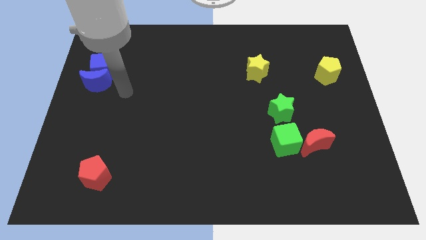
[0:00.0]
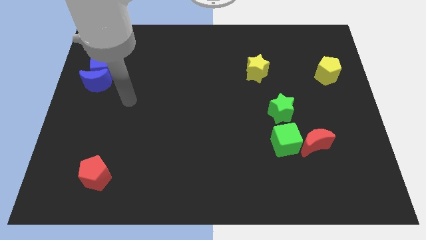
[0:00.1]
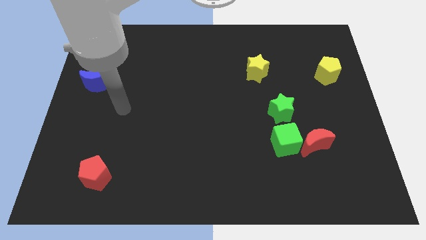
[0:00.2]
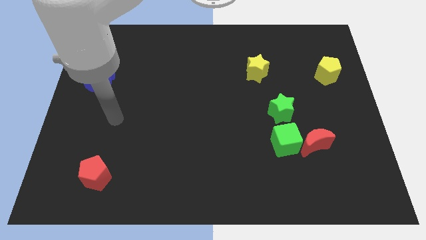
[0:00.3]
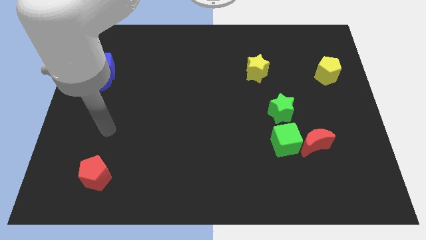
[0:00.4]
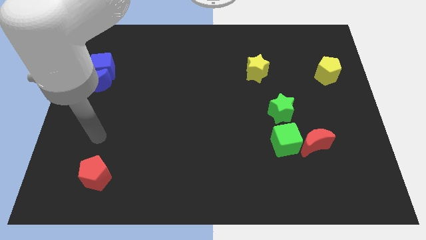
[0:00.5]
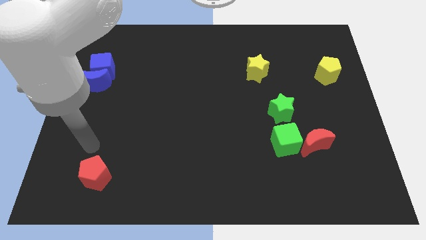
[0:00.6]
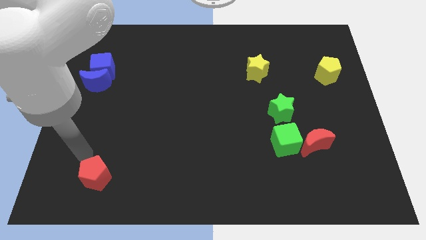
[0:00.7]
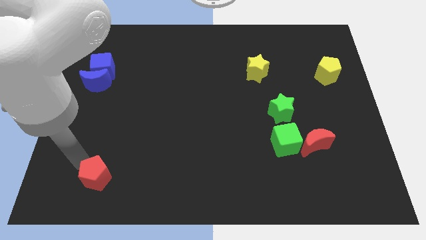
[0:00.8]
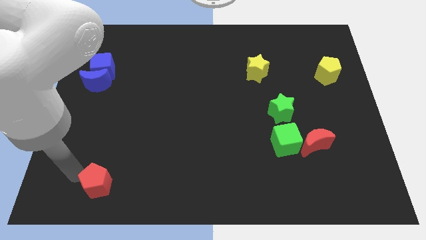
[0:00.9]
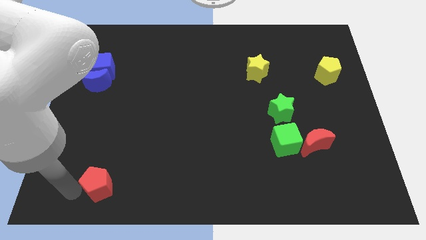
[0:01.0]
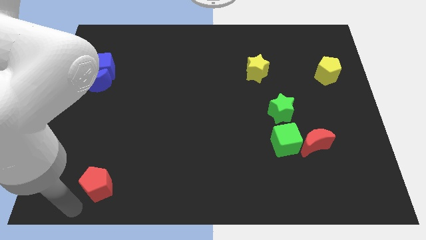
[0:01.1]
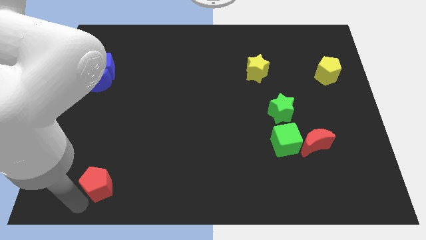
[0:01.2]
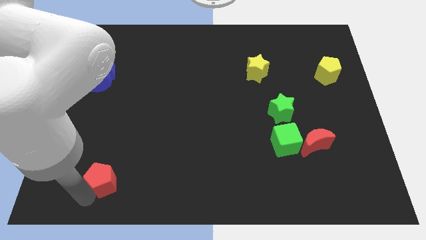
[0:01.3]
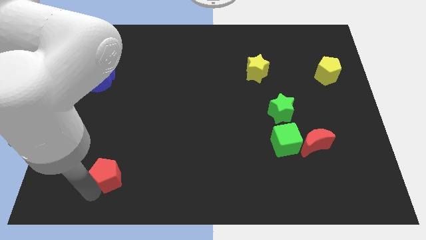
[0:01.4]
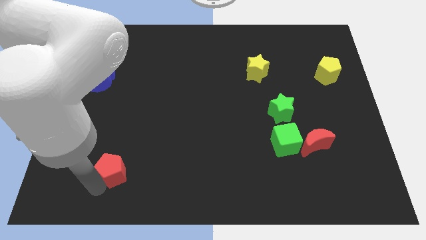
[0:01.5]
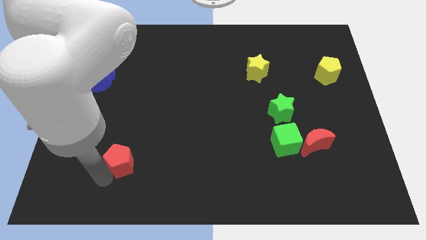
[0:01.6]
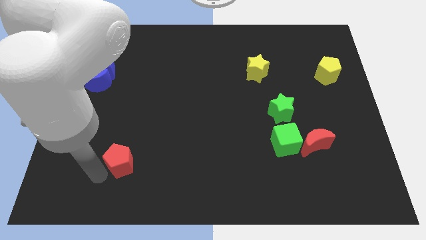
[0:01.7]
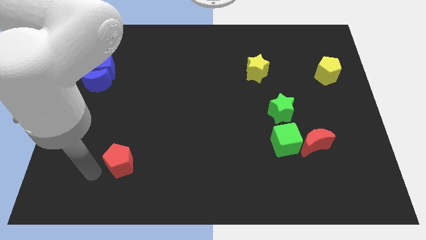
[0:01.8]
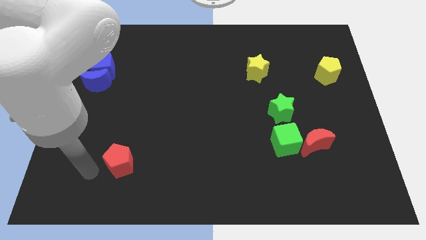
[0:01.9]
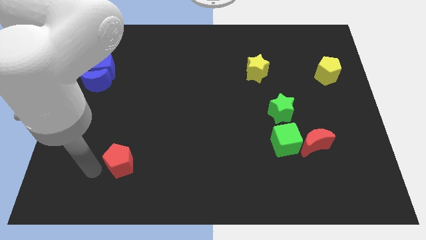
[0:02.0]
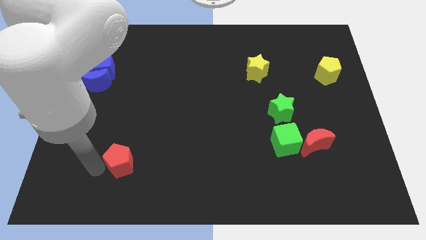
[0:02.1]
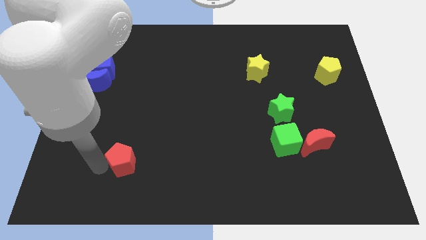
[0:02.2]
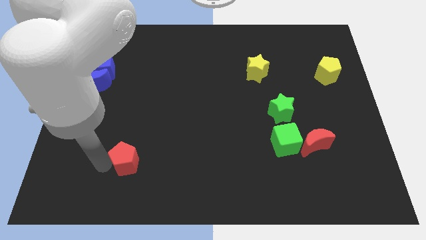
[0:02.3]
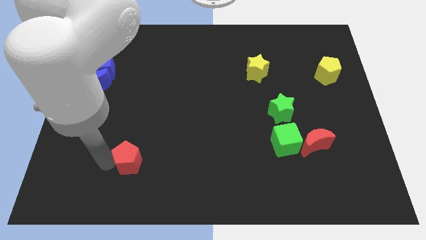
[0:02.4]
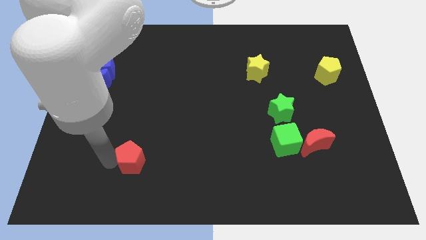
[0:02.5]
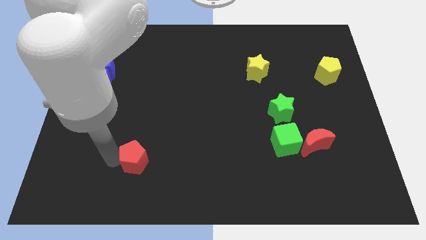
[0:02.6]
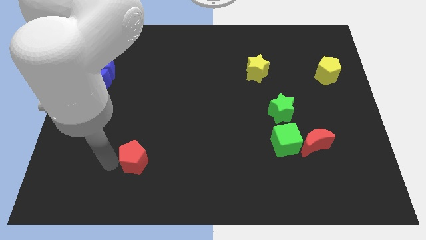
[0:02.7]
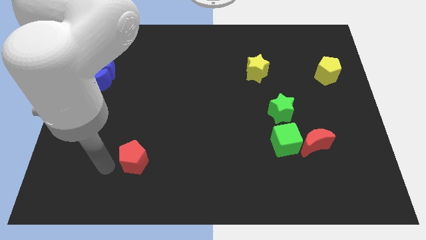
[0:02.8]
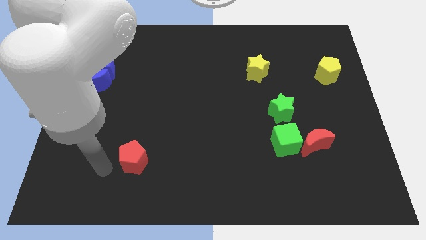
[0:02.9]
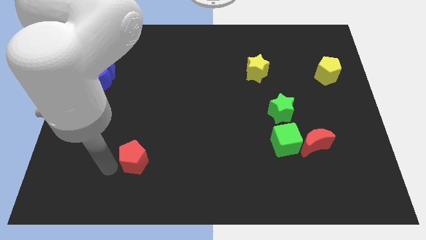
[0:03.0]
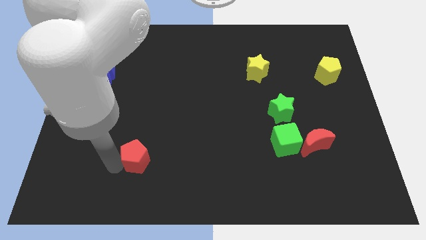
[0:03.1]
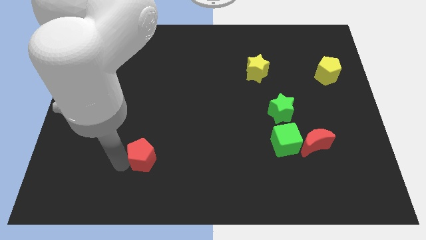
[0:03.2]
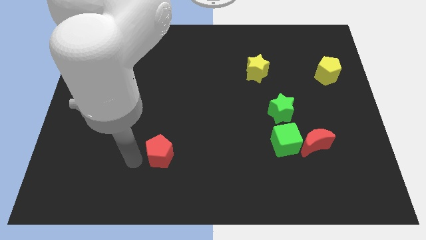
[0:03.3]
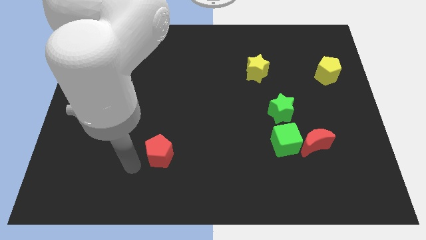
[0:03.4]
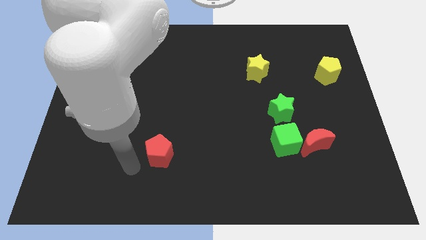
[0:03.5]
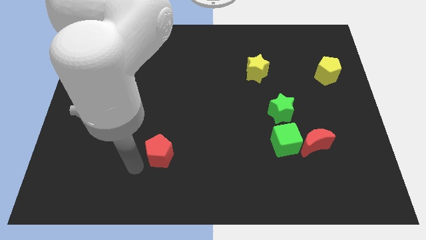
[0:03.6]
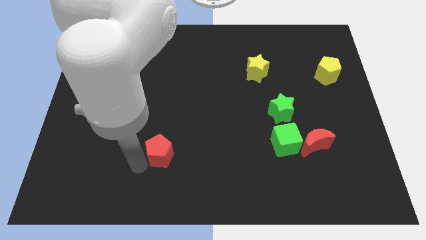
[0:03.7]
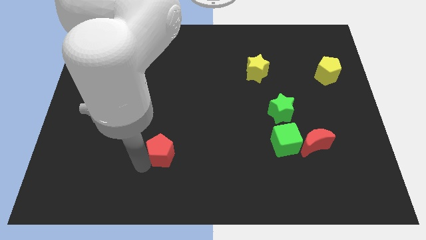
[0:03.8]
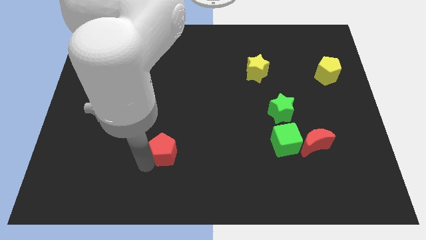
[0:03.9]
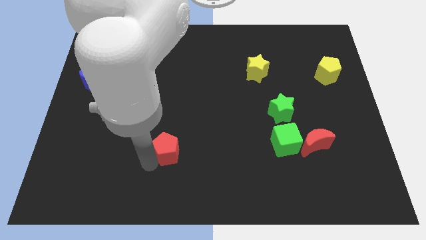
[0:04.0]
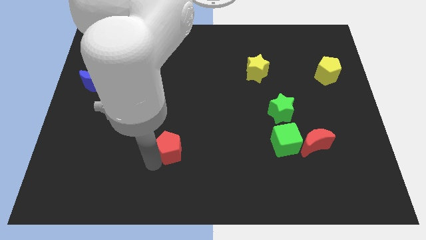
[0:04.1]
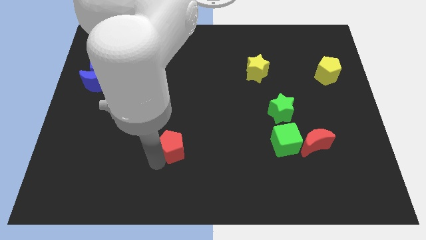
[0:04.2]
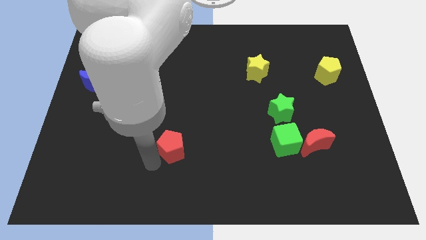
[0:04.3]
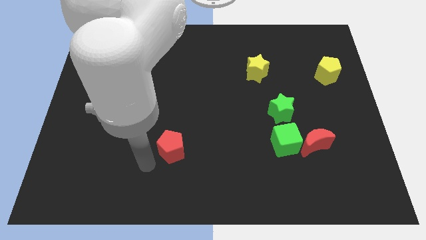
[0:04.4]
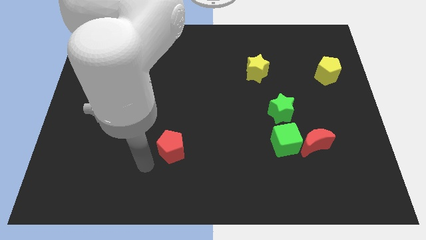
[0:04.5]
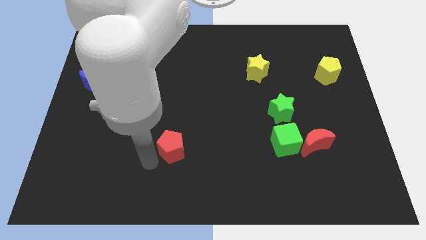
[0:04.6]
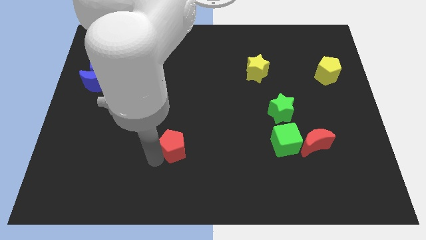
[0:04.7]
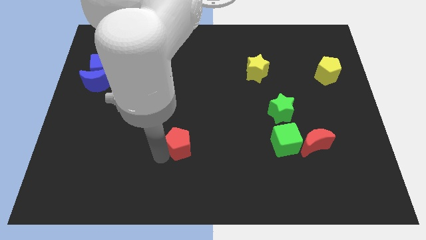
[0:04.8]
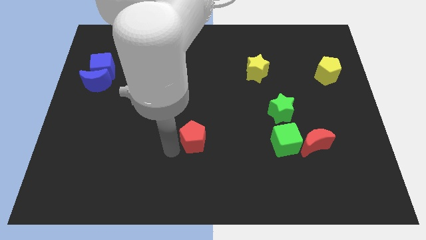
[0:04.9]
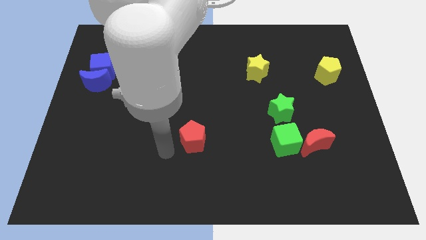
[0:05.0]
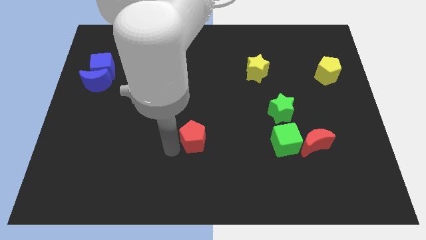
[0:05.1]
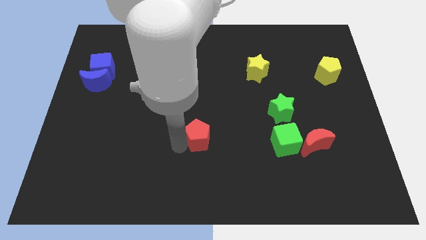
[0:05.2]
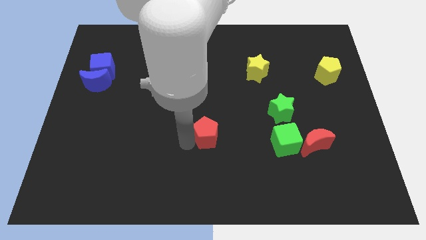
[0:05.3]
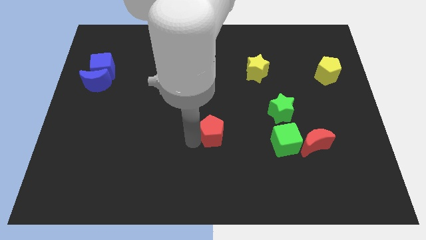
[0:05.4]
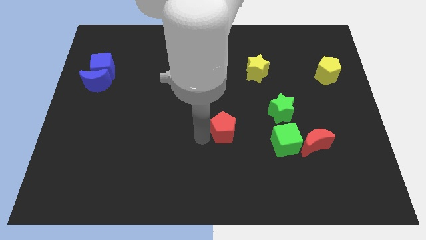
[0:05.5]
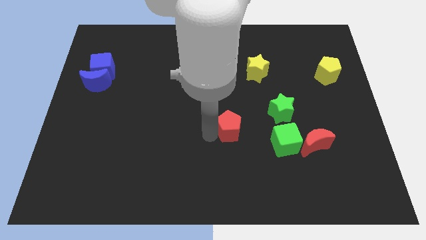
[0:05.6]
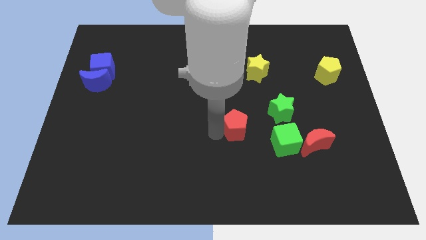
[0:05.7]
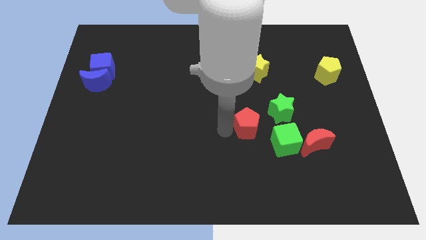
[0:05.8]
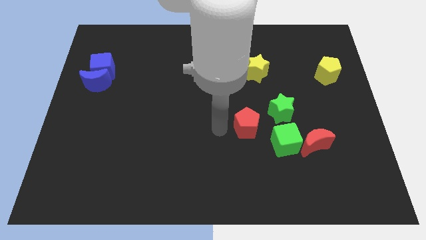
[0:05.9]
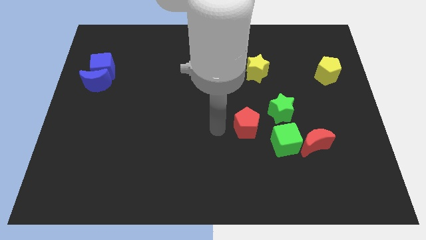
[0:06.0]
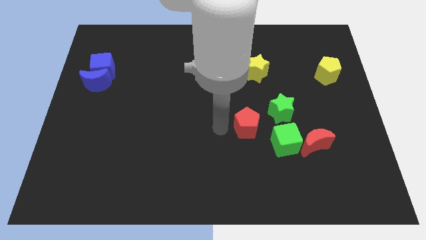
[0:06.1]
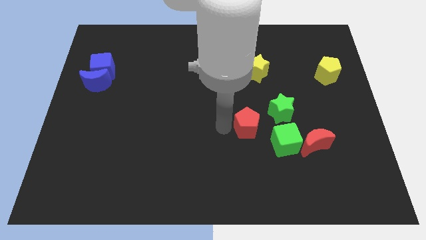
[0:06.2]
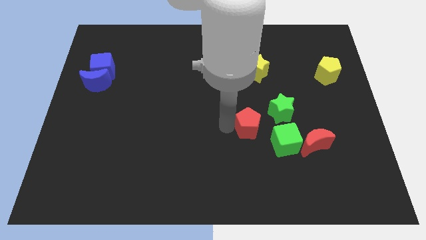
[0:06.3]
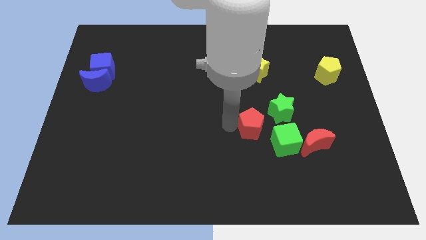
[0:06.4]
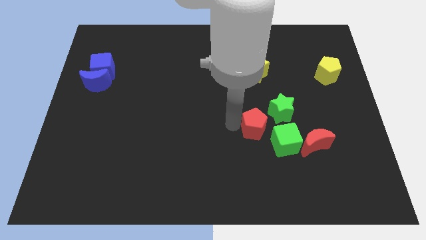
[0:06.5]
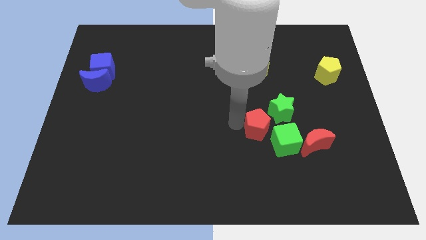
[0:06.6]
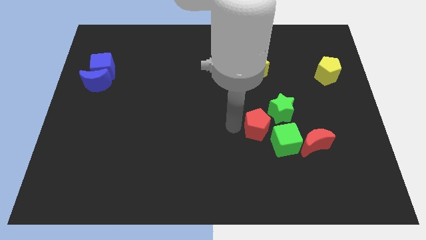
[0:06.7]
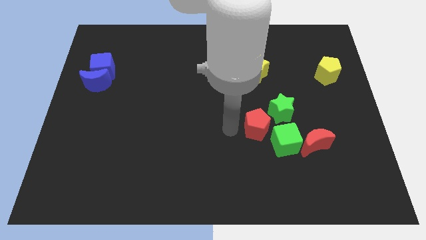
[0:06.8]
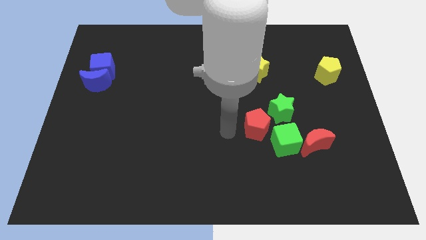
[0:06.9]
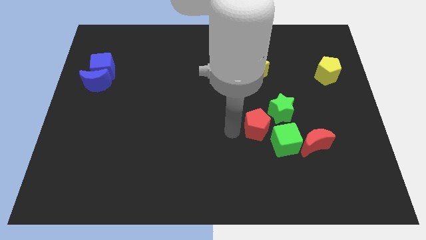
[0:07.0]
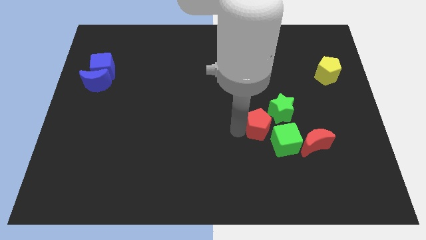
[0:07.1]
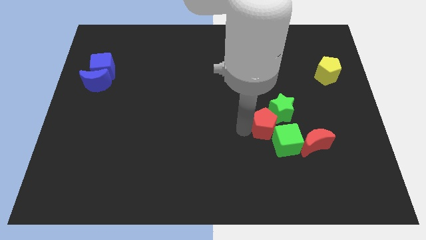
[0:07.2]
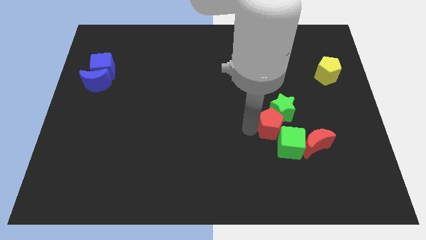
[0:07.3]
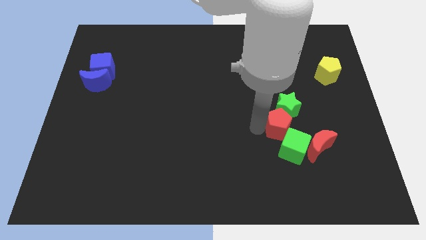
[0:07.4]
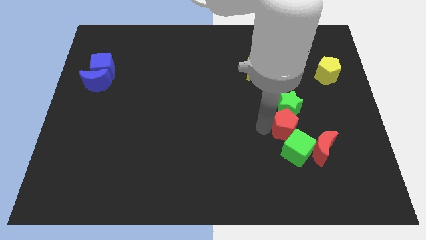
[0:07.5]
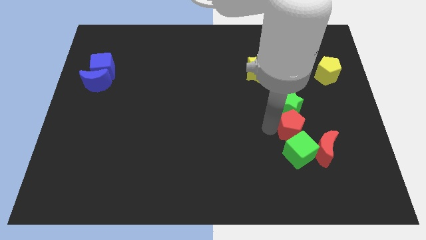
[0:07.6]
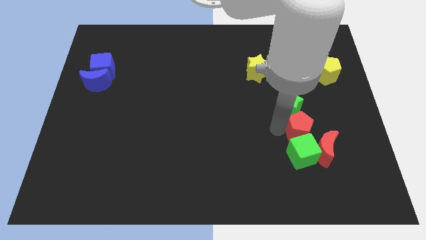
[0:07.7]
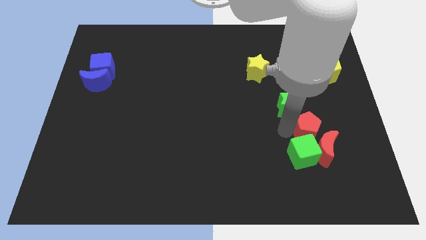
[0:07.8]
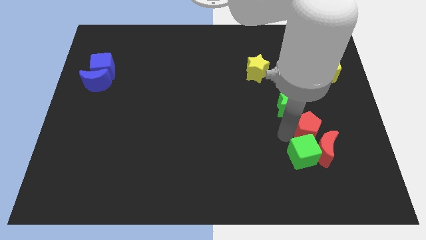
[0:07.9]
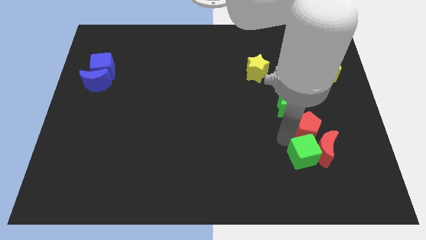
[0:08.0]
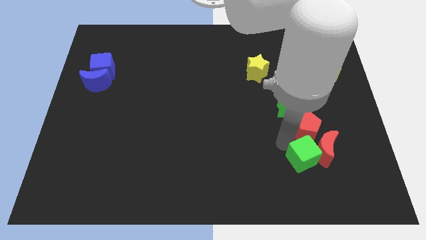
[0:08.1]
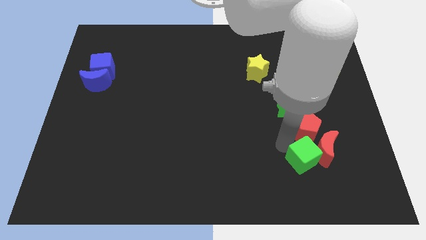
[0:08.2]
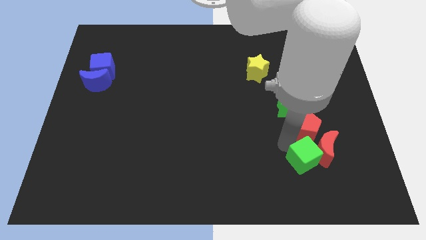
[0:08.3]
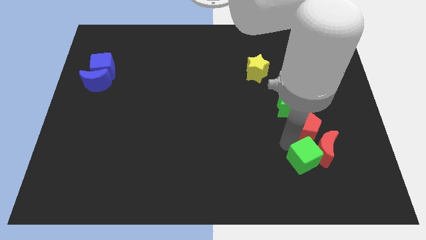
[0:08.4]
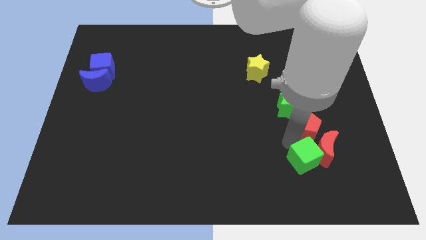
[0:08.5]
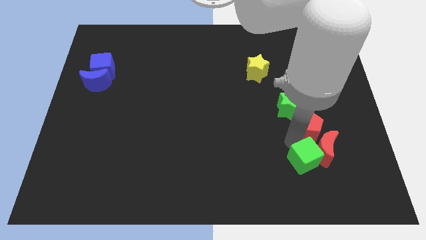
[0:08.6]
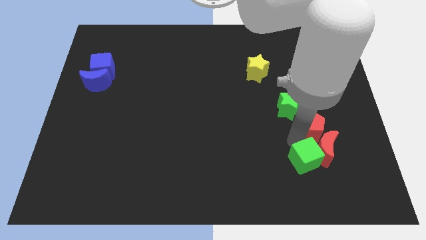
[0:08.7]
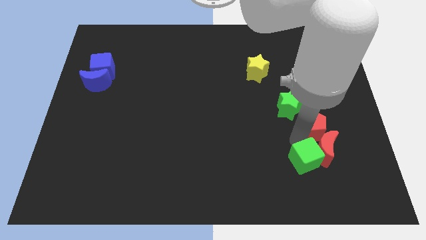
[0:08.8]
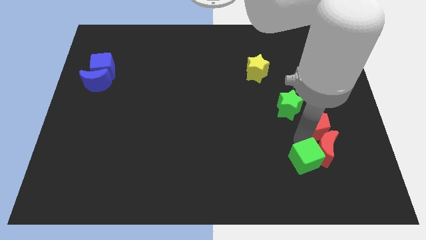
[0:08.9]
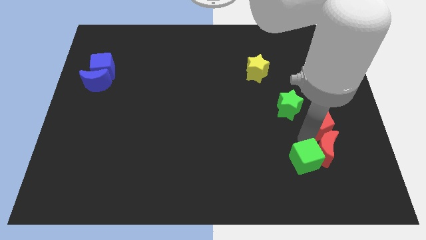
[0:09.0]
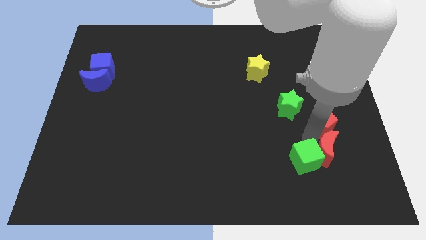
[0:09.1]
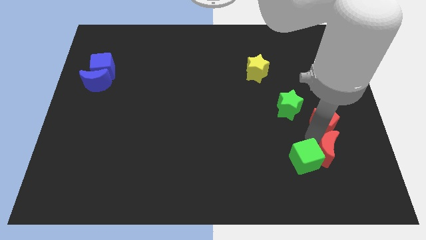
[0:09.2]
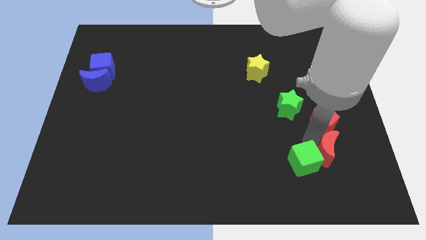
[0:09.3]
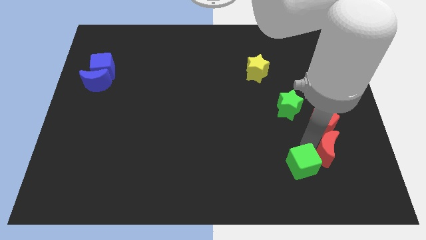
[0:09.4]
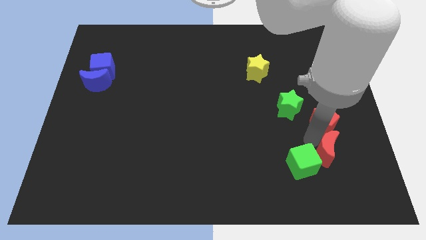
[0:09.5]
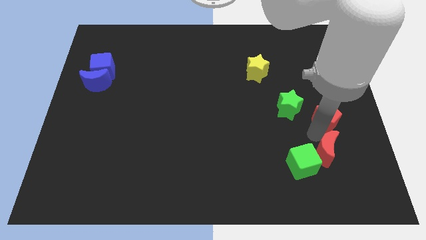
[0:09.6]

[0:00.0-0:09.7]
move the red pentagon to the bottom of the yellow pentagon
